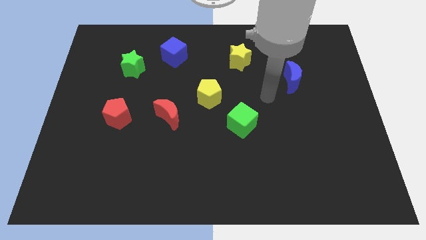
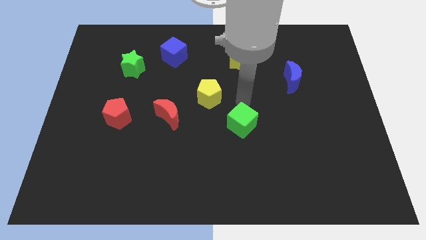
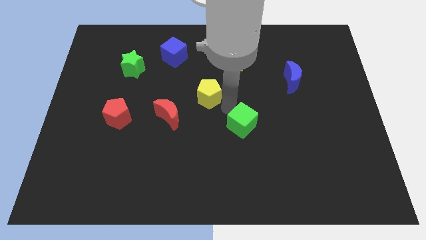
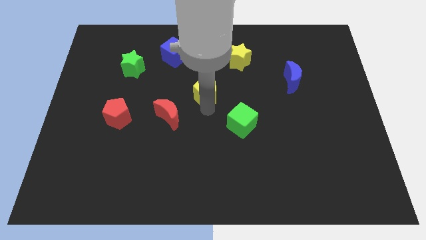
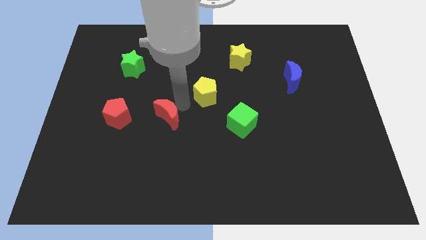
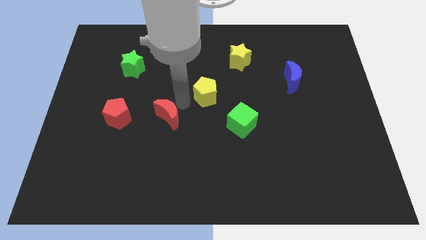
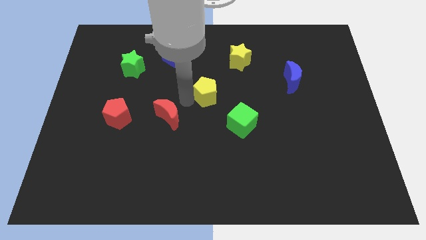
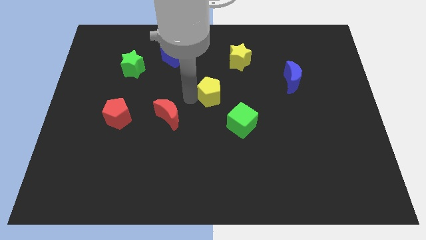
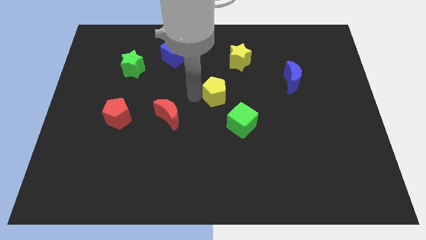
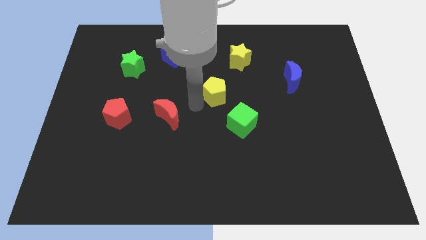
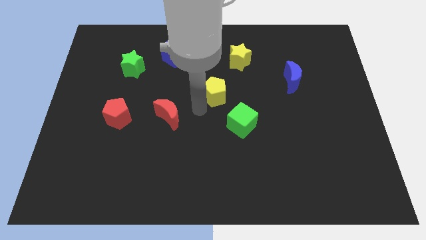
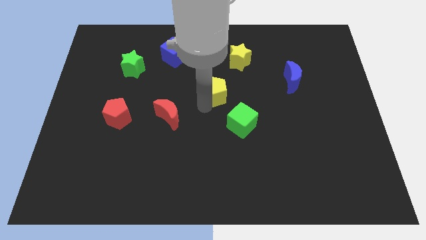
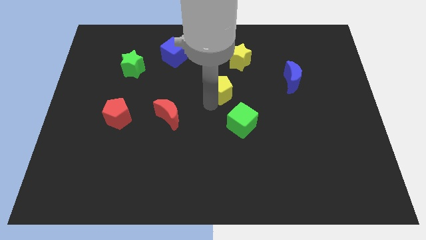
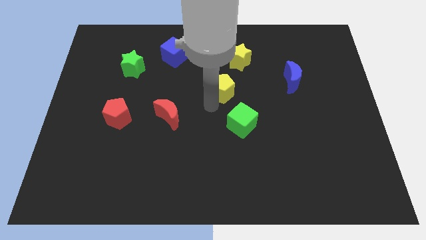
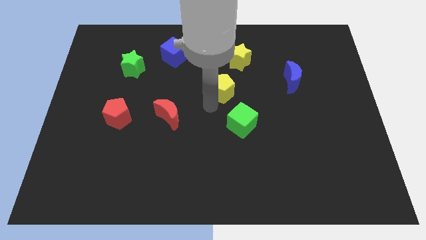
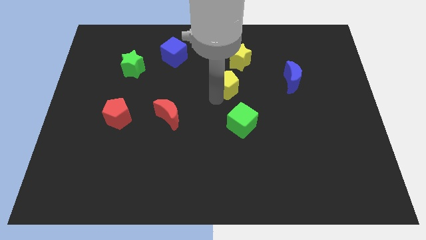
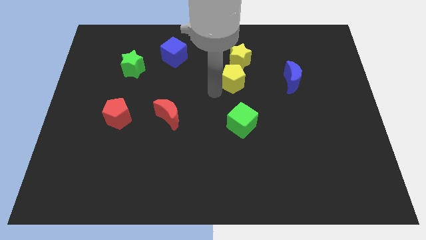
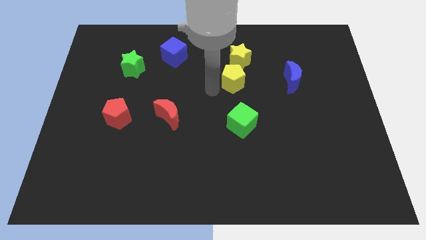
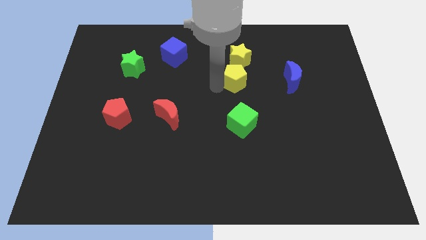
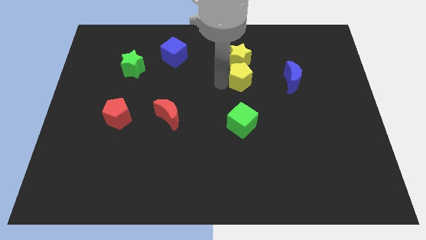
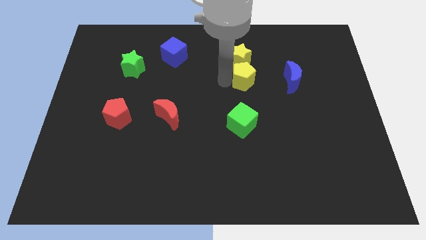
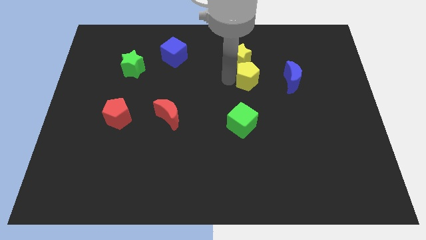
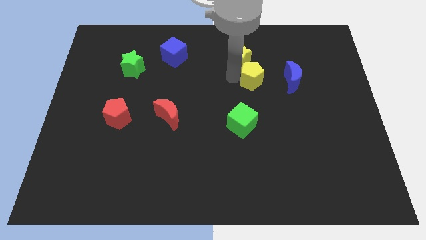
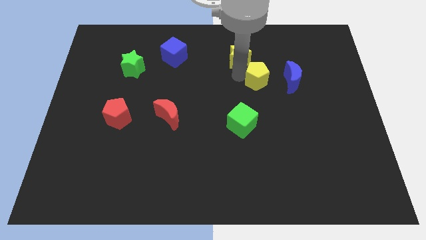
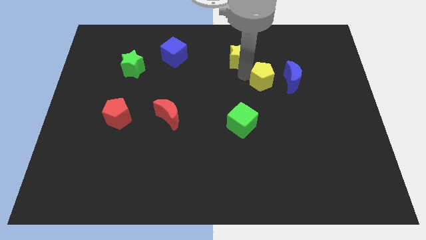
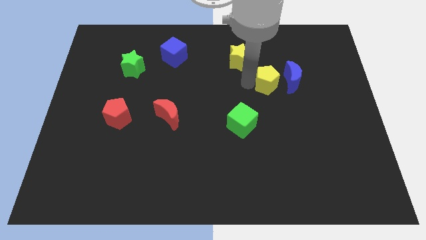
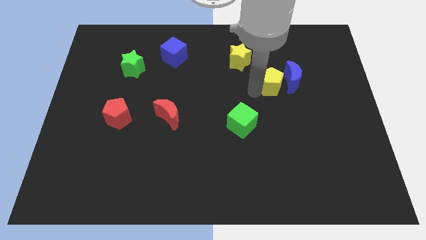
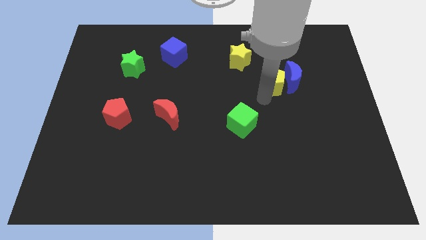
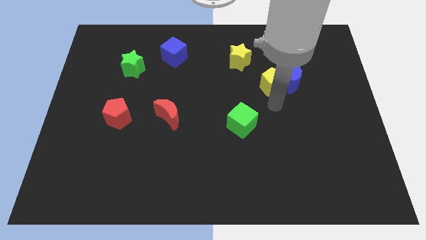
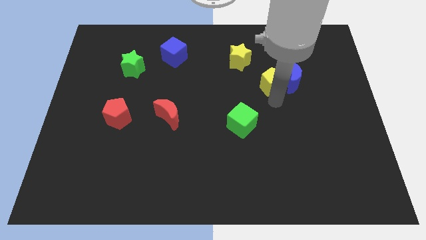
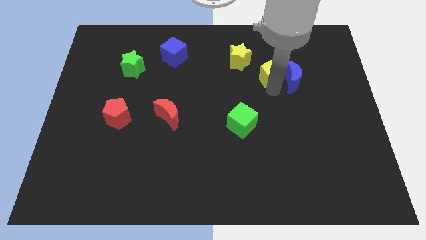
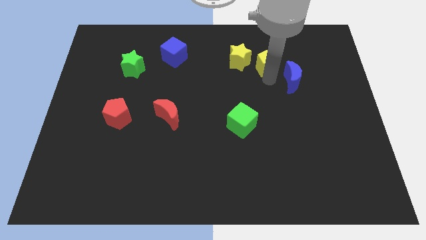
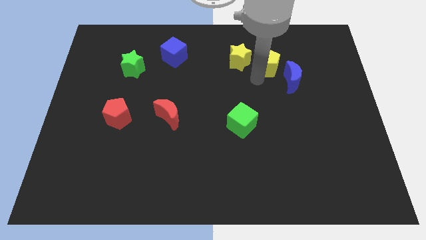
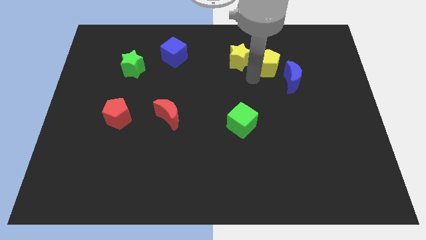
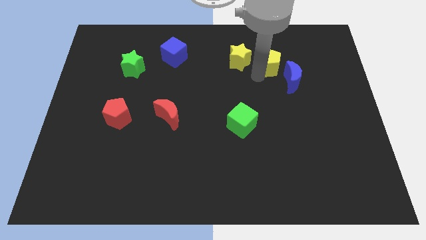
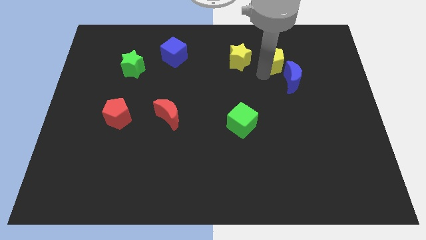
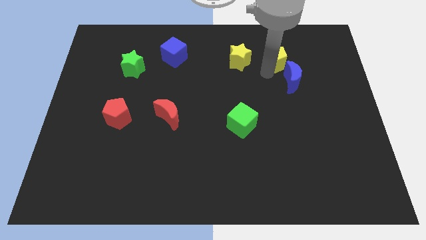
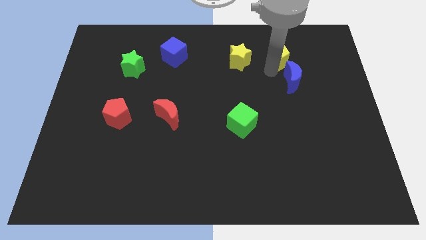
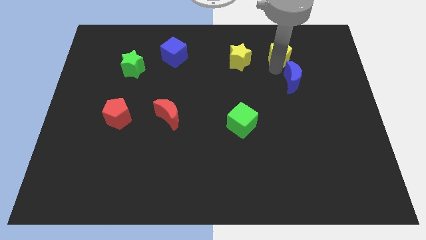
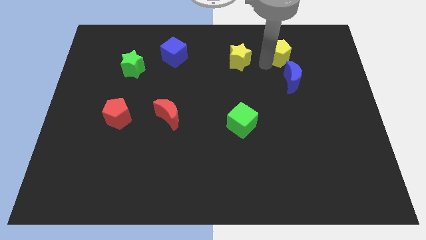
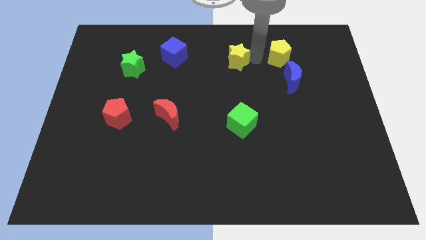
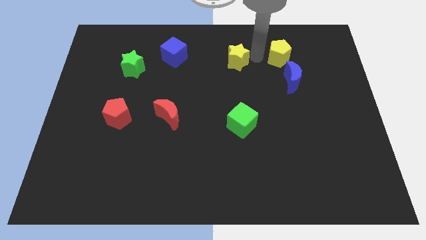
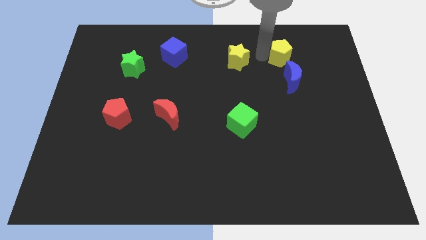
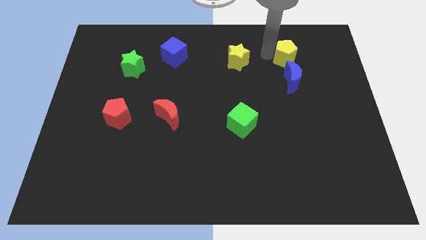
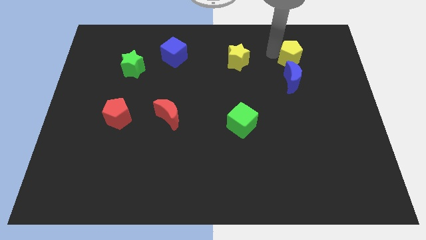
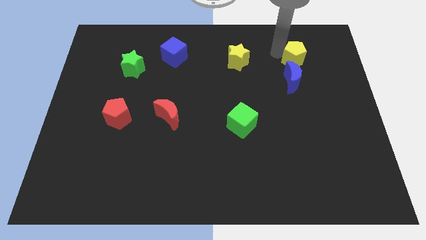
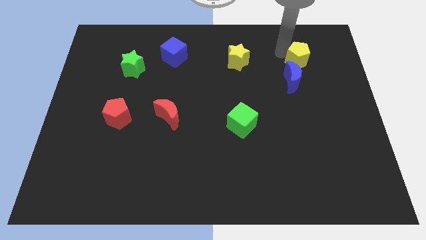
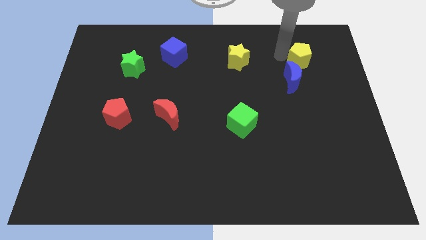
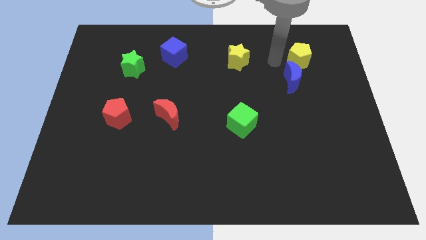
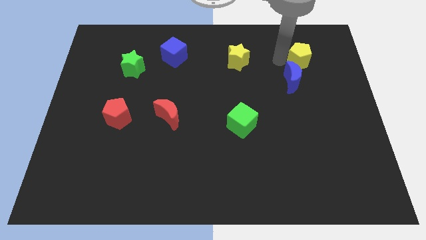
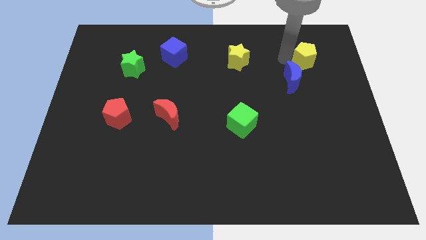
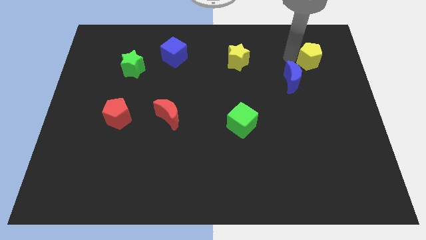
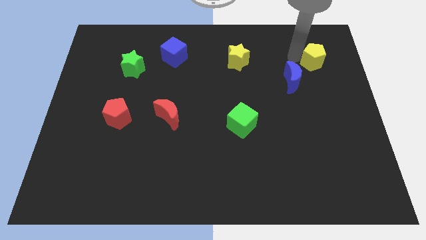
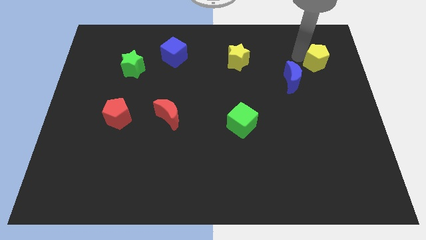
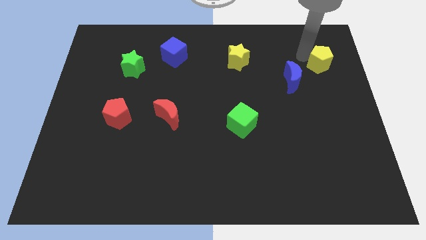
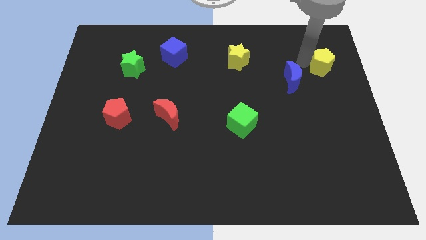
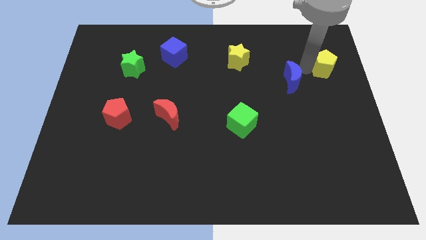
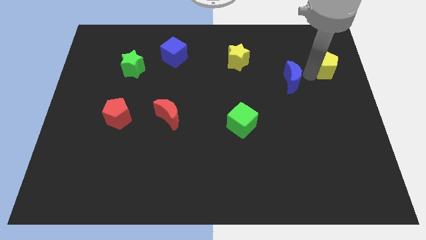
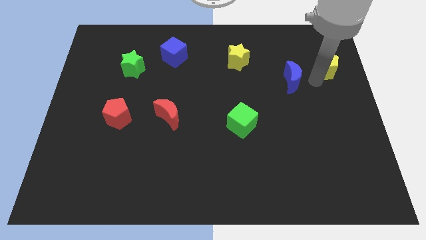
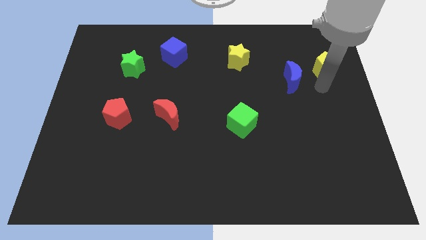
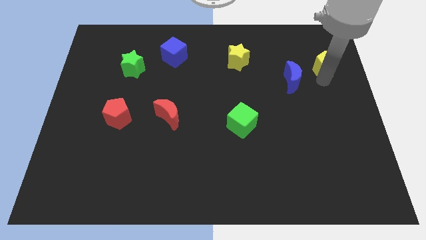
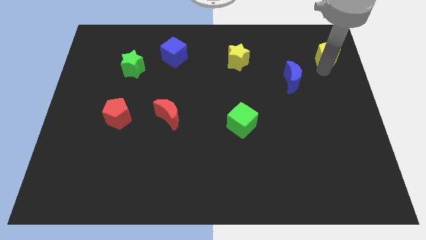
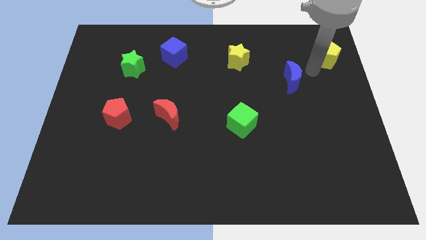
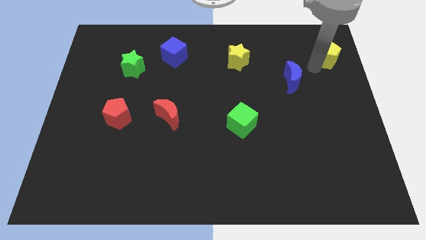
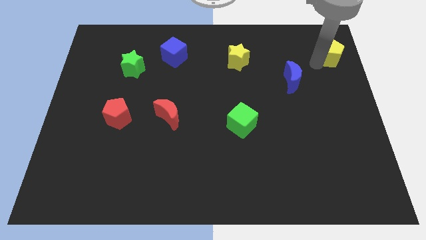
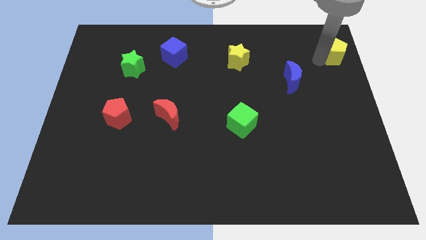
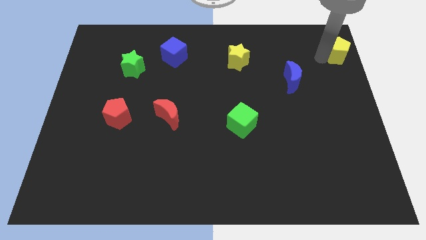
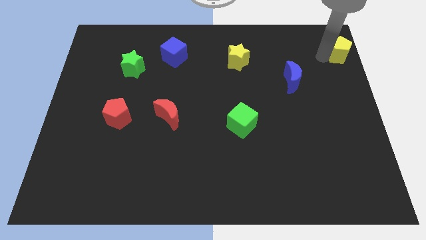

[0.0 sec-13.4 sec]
slide the yellow pentagon to the top right
